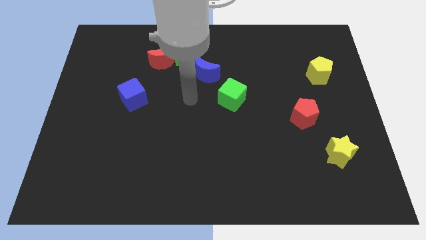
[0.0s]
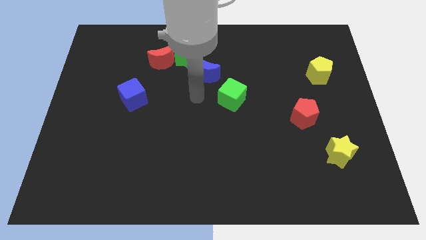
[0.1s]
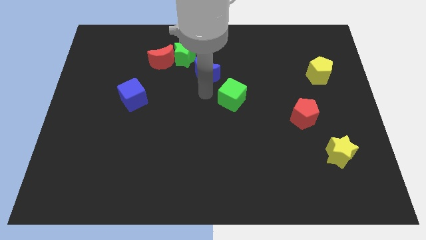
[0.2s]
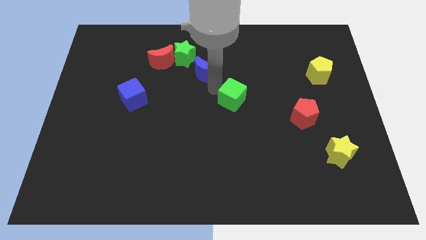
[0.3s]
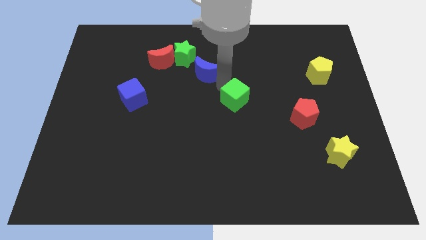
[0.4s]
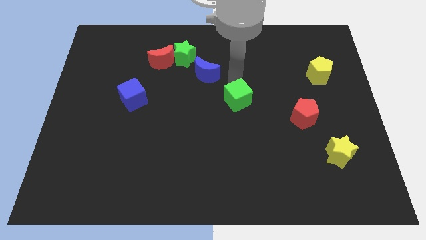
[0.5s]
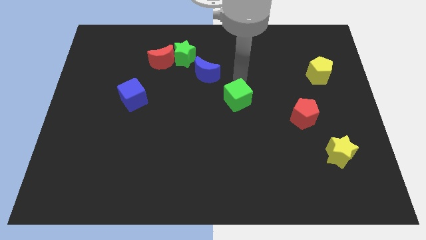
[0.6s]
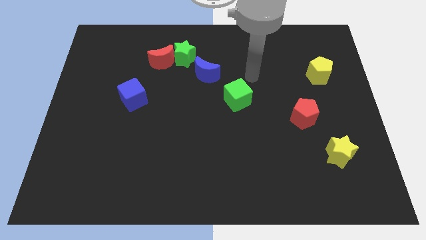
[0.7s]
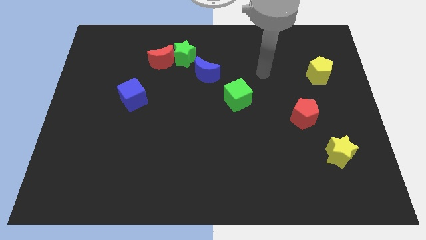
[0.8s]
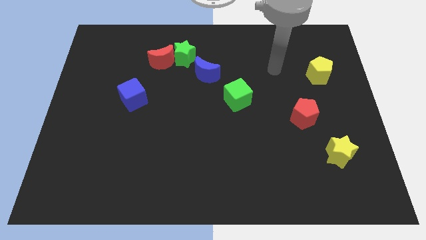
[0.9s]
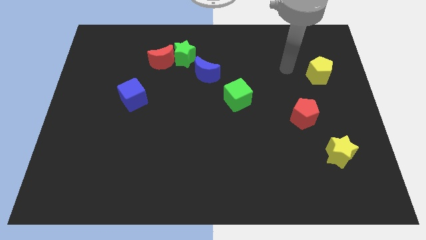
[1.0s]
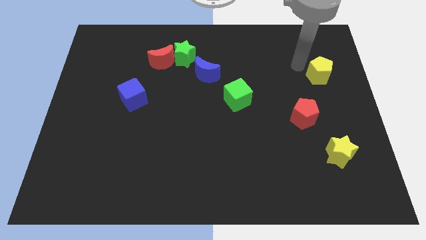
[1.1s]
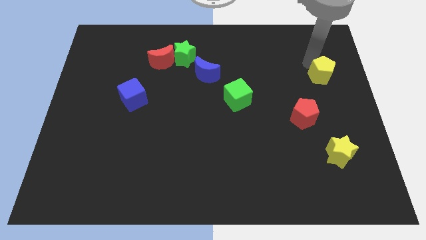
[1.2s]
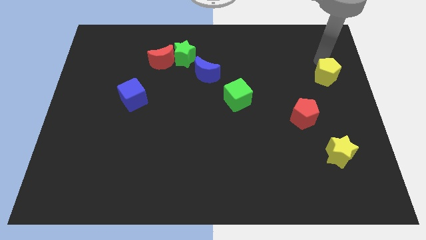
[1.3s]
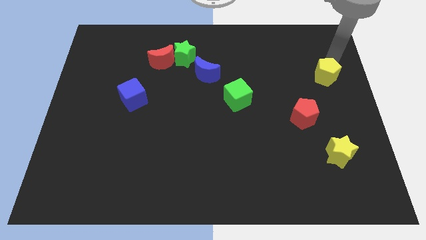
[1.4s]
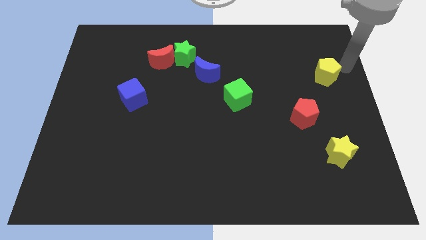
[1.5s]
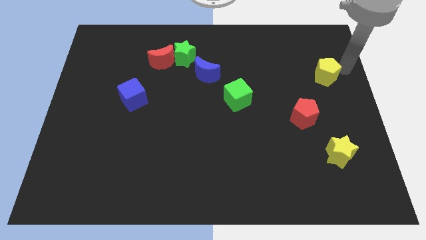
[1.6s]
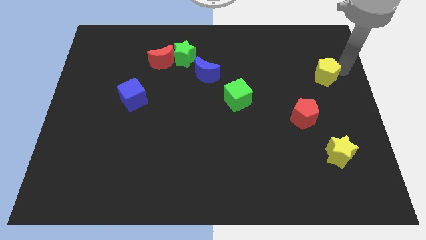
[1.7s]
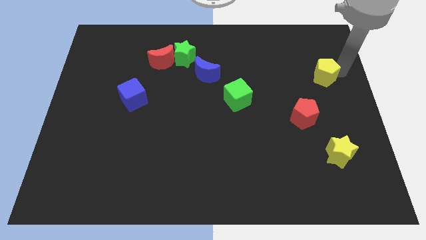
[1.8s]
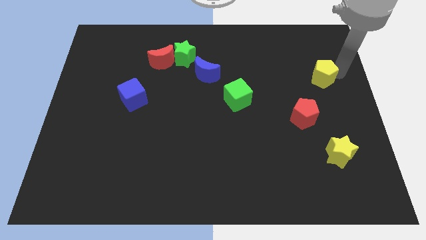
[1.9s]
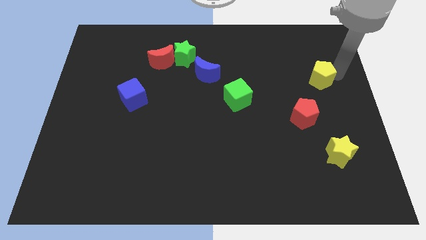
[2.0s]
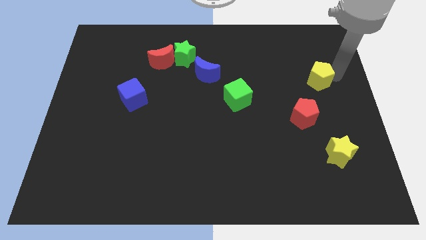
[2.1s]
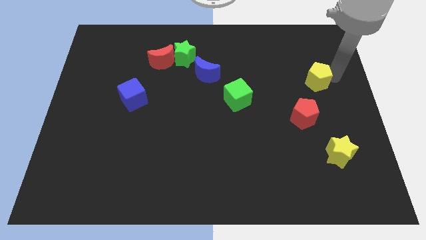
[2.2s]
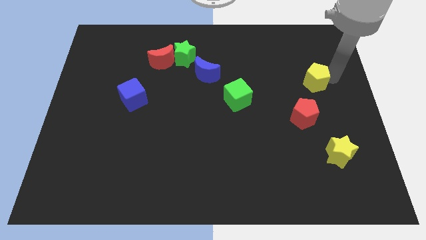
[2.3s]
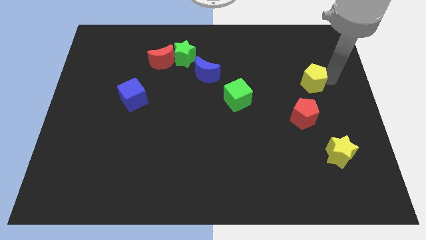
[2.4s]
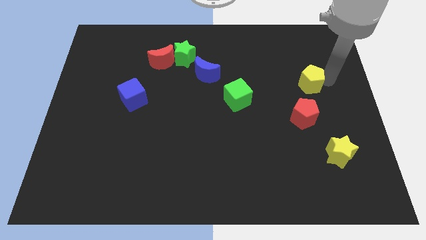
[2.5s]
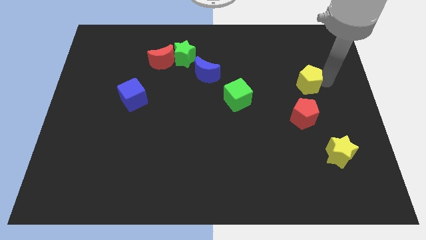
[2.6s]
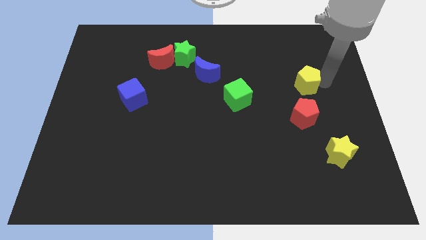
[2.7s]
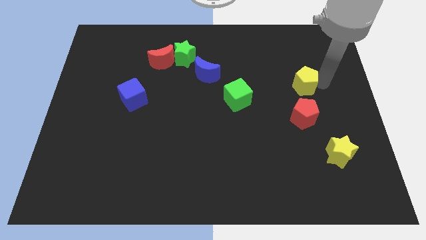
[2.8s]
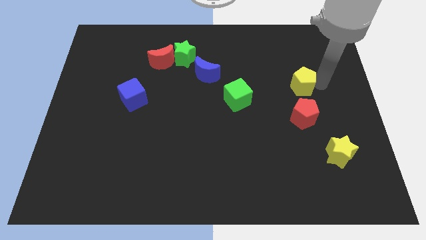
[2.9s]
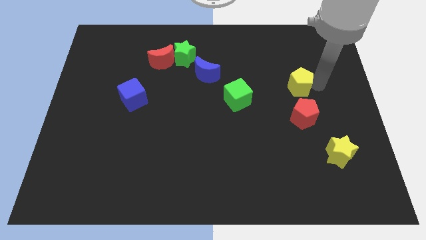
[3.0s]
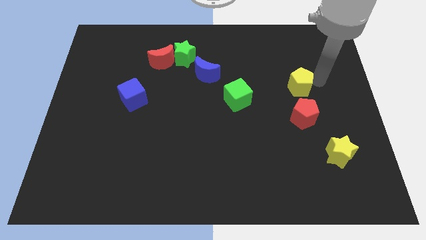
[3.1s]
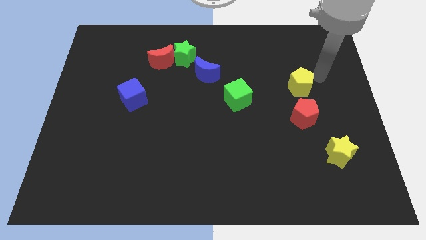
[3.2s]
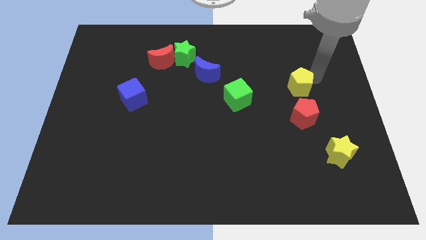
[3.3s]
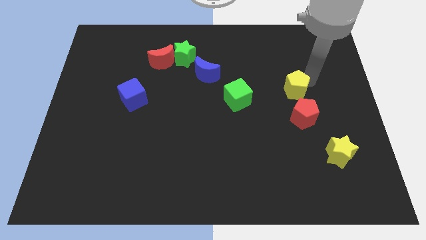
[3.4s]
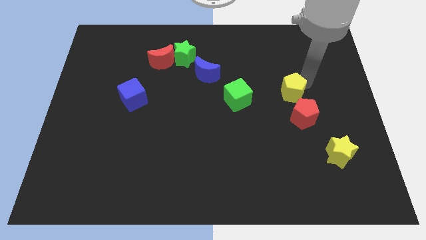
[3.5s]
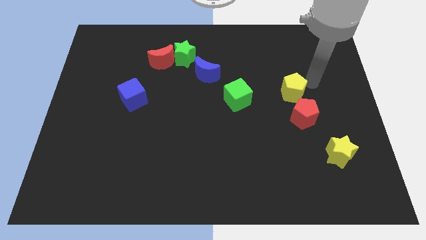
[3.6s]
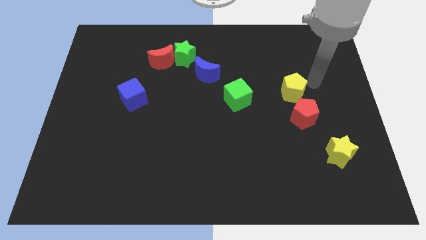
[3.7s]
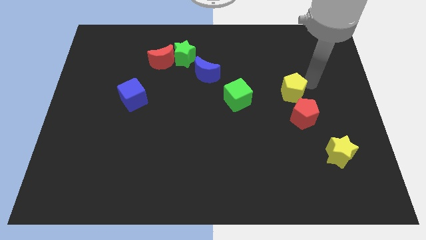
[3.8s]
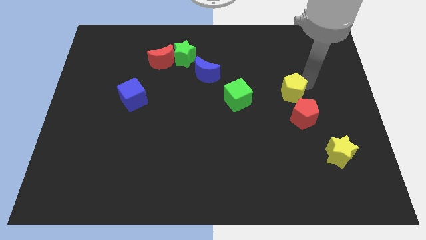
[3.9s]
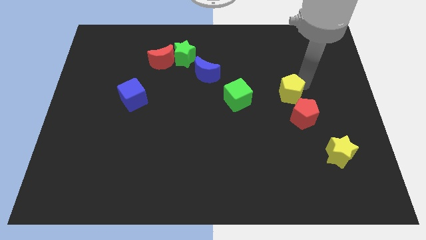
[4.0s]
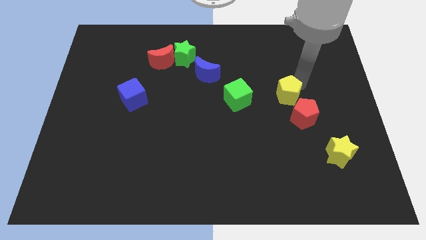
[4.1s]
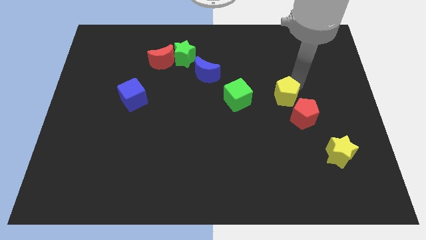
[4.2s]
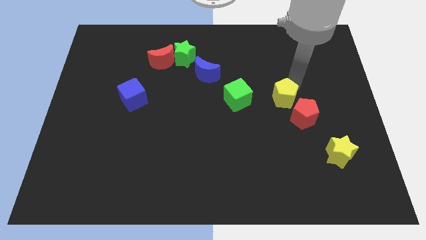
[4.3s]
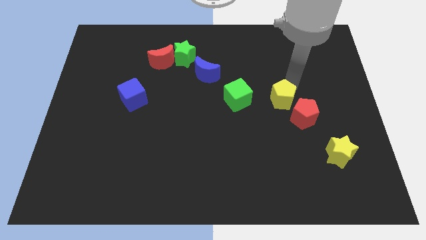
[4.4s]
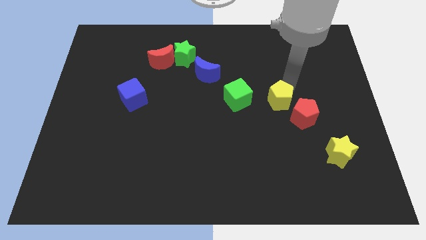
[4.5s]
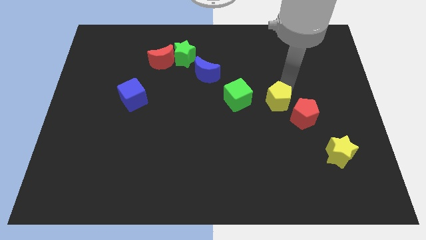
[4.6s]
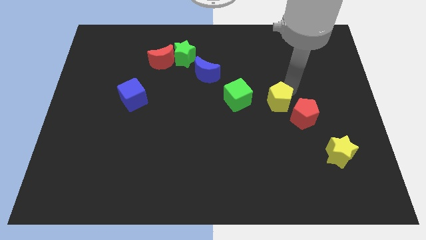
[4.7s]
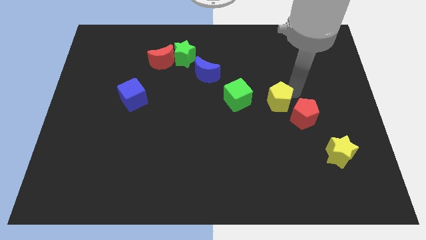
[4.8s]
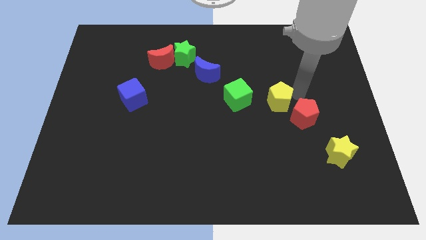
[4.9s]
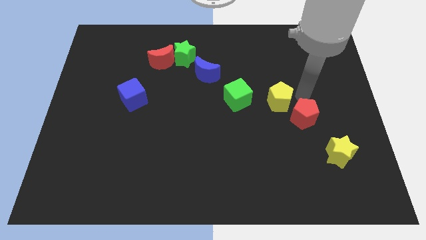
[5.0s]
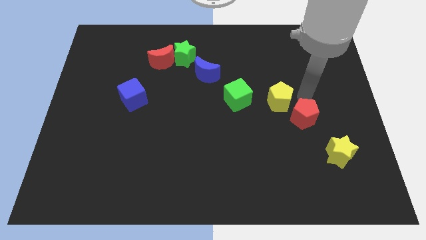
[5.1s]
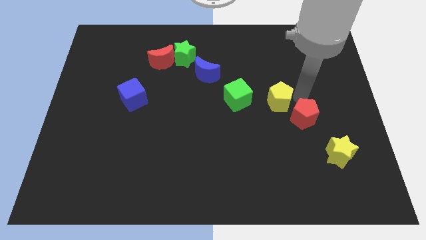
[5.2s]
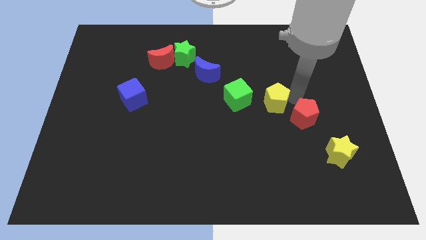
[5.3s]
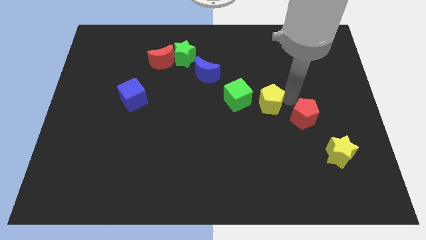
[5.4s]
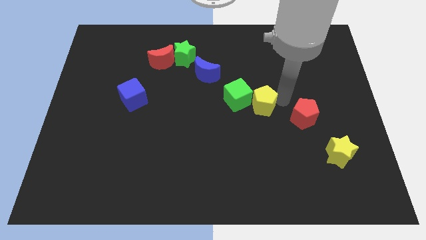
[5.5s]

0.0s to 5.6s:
put the yellow pentagon to the middle

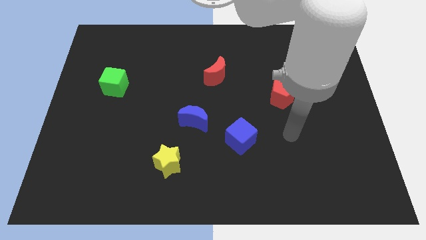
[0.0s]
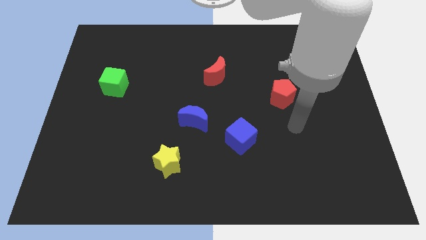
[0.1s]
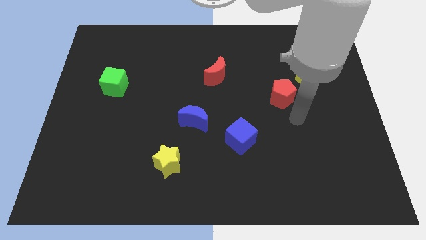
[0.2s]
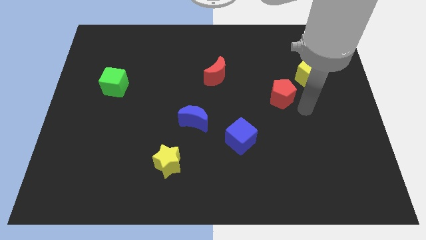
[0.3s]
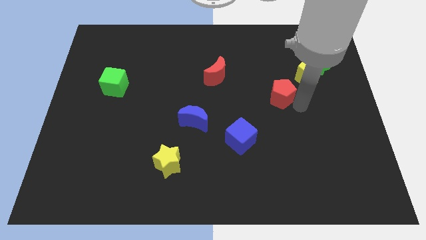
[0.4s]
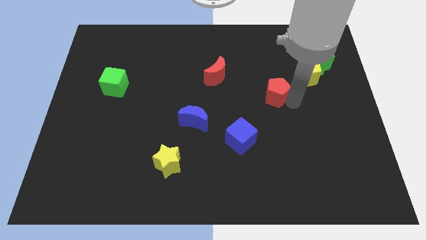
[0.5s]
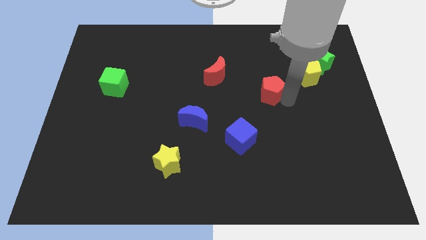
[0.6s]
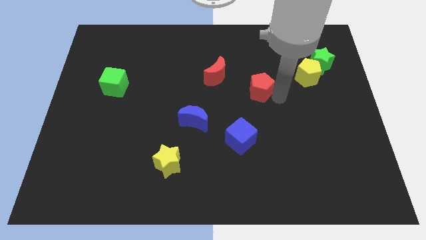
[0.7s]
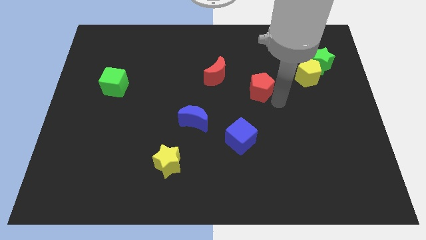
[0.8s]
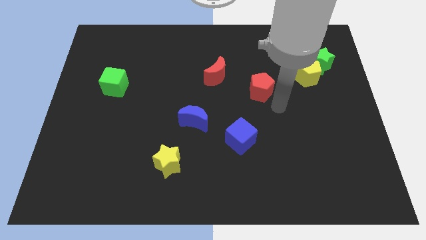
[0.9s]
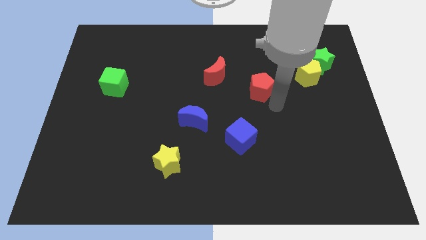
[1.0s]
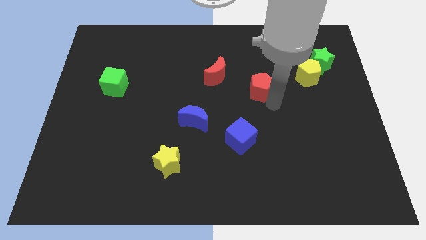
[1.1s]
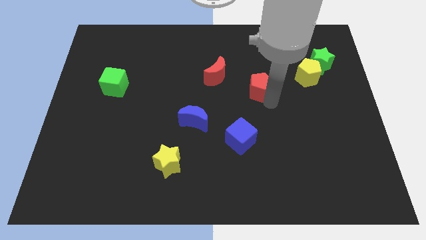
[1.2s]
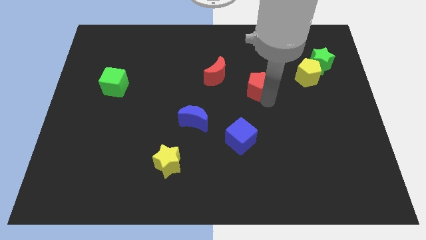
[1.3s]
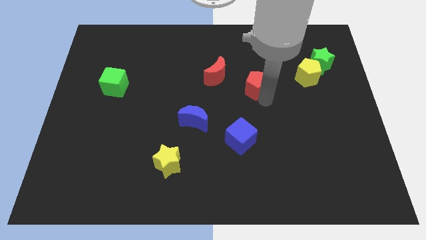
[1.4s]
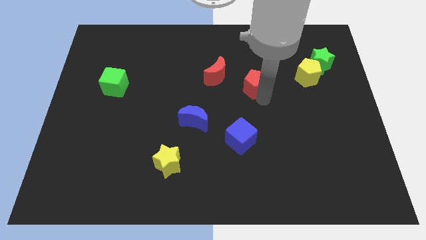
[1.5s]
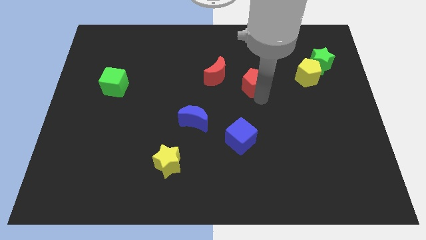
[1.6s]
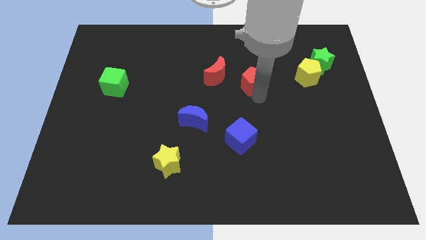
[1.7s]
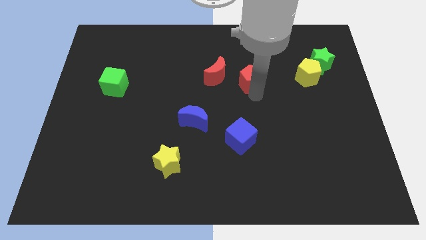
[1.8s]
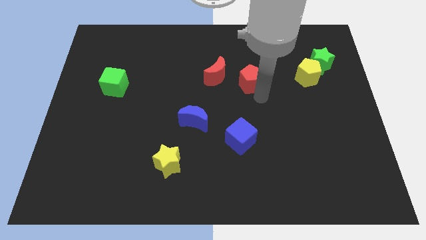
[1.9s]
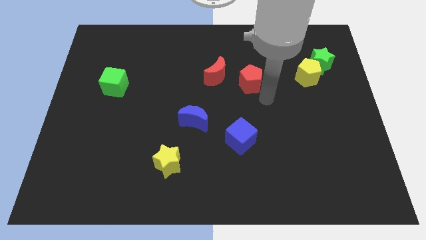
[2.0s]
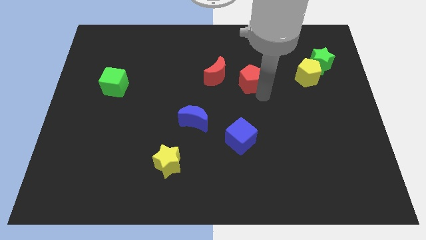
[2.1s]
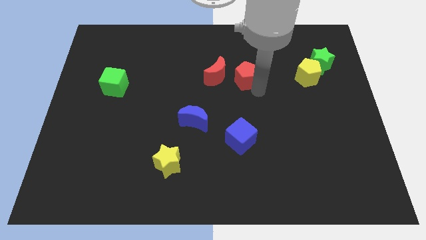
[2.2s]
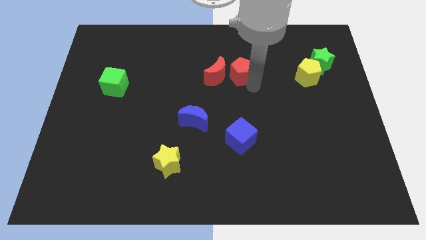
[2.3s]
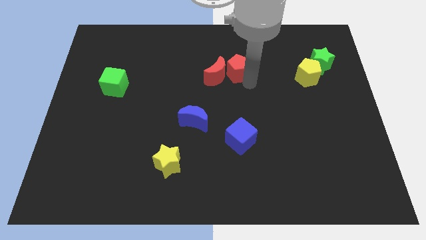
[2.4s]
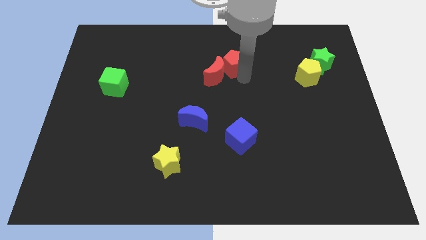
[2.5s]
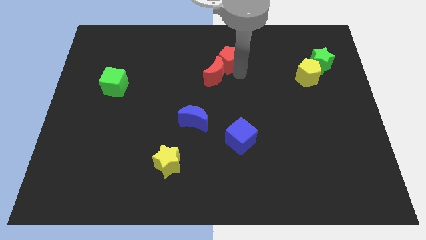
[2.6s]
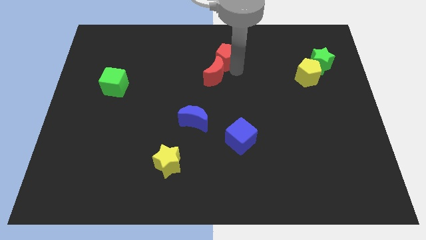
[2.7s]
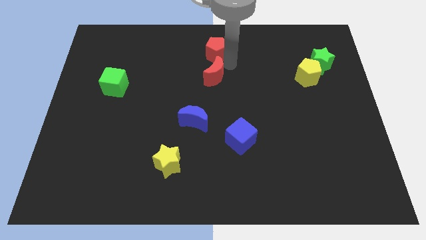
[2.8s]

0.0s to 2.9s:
move the red pentagon to the towards your base
